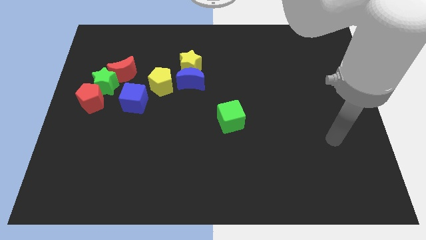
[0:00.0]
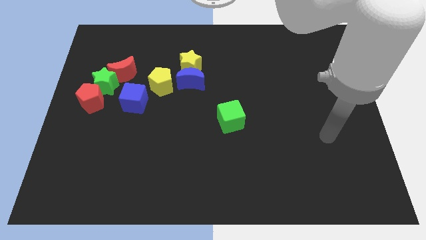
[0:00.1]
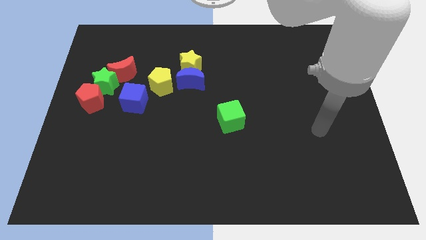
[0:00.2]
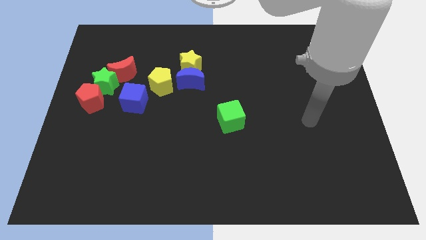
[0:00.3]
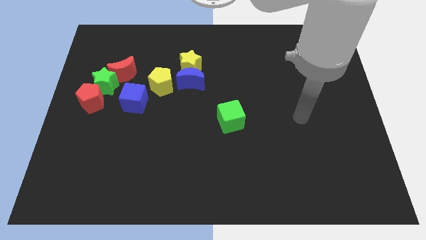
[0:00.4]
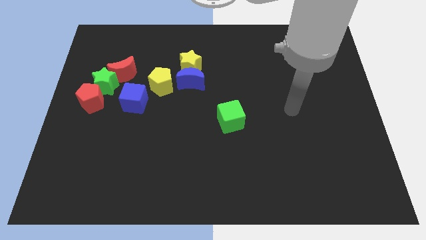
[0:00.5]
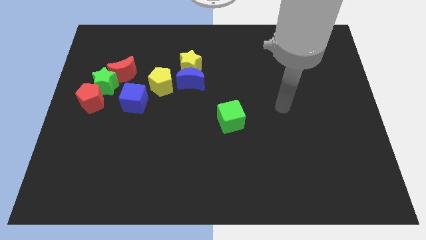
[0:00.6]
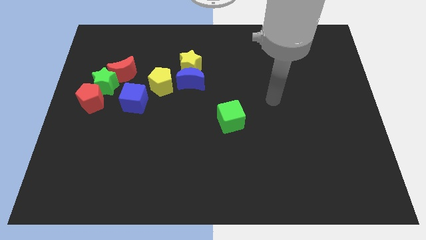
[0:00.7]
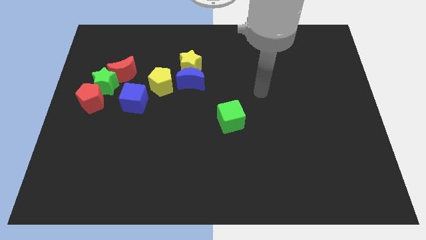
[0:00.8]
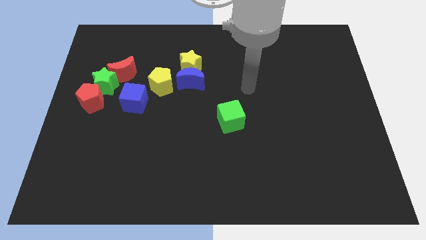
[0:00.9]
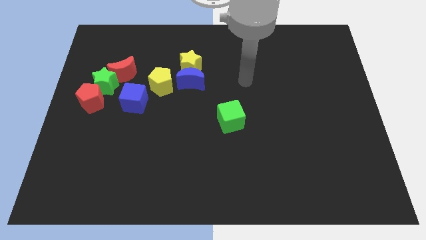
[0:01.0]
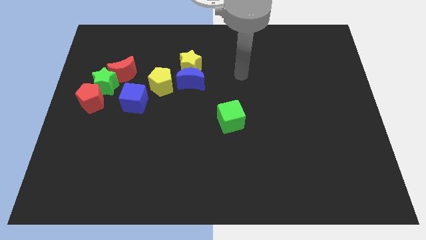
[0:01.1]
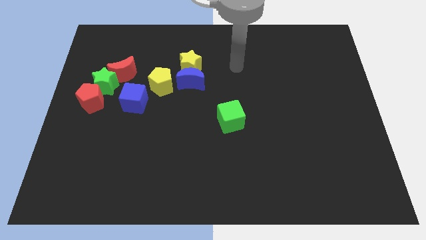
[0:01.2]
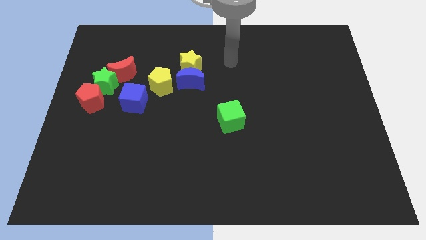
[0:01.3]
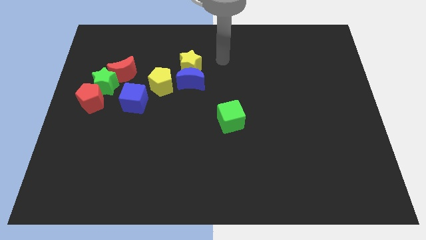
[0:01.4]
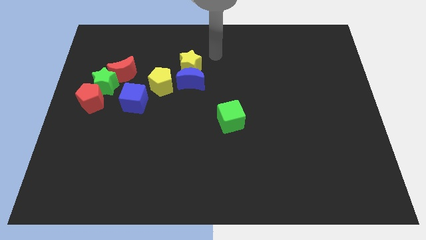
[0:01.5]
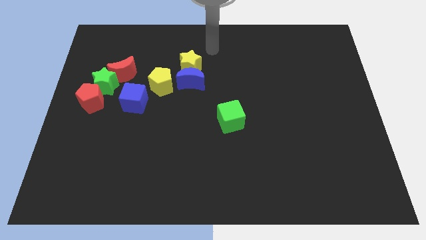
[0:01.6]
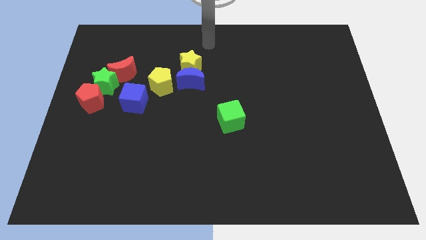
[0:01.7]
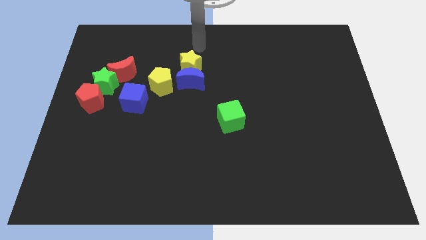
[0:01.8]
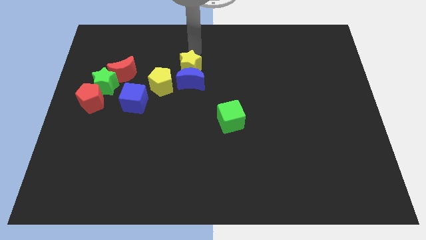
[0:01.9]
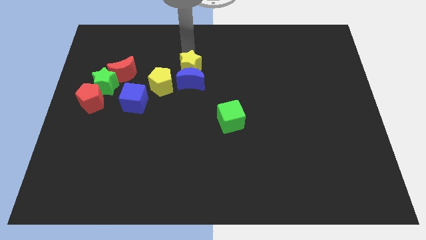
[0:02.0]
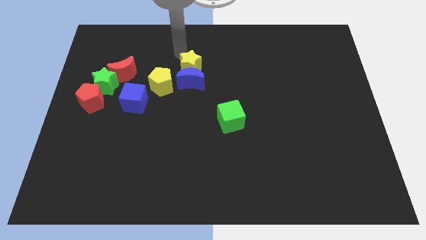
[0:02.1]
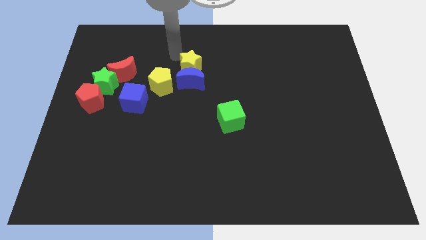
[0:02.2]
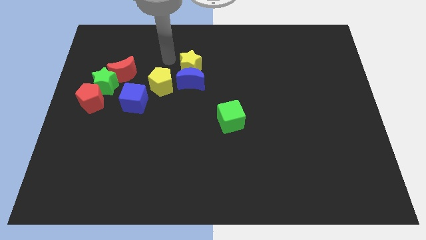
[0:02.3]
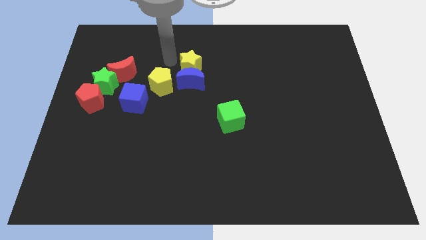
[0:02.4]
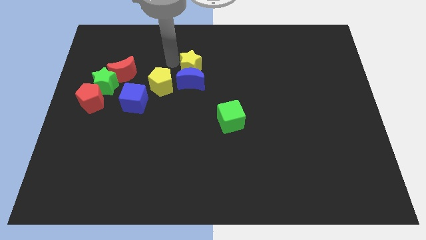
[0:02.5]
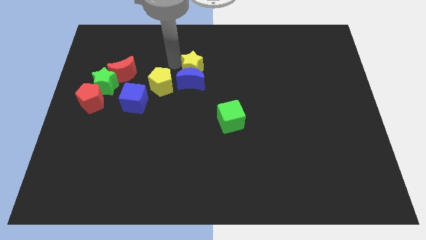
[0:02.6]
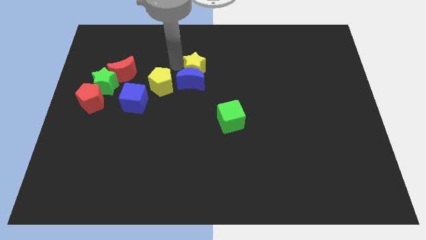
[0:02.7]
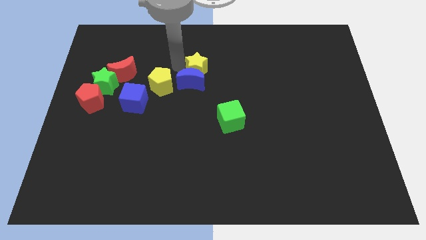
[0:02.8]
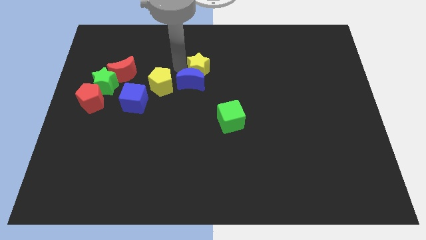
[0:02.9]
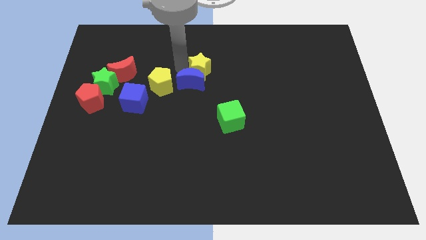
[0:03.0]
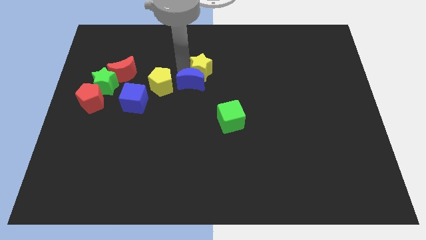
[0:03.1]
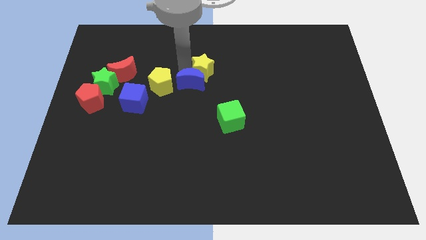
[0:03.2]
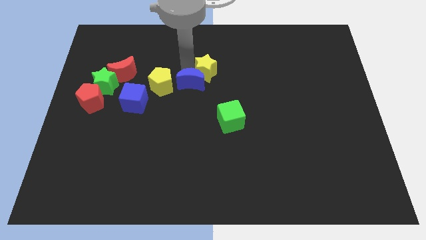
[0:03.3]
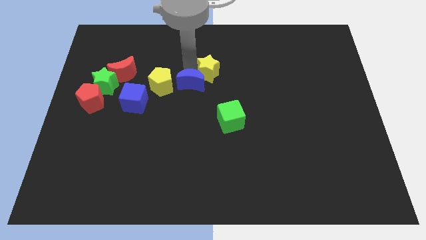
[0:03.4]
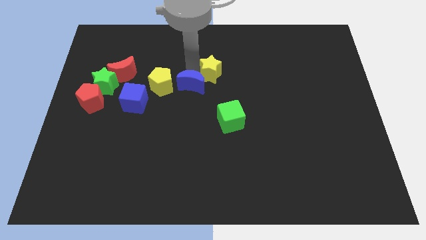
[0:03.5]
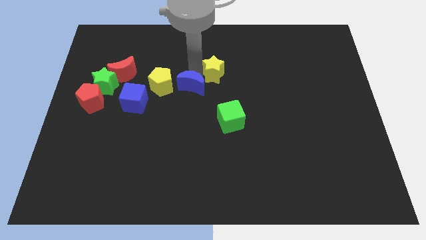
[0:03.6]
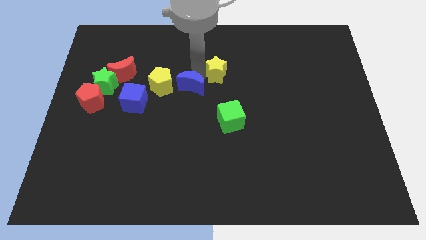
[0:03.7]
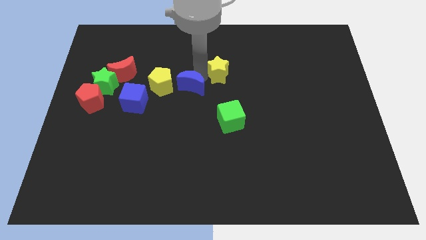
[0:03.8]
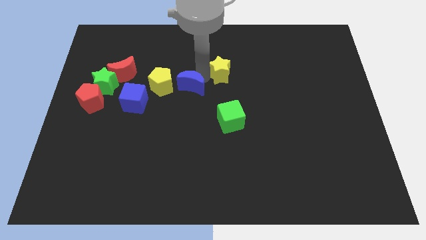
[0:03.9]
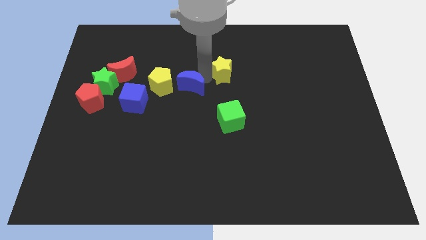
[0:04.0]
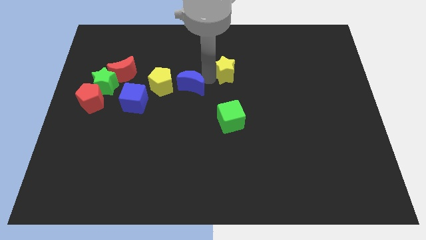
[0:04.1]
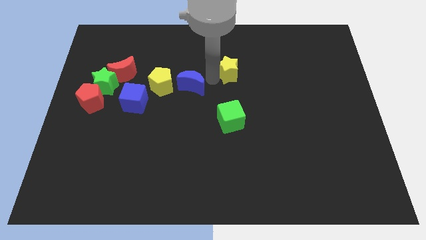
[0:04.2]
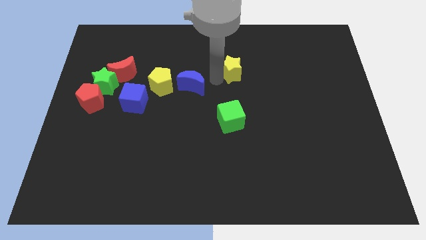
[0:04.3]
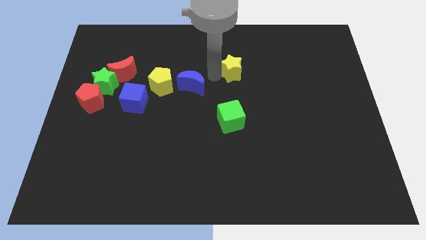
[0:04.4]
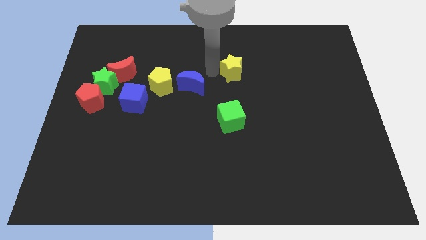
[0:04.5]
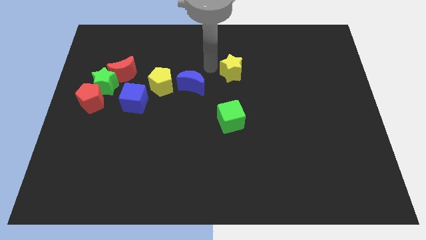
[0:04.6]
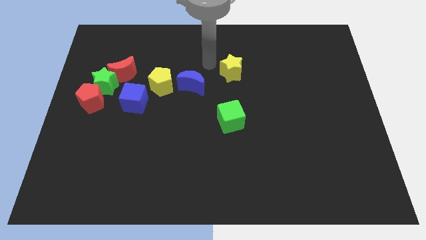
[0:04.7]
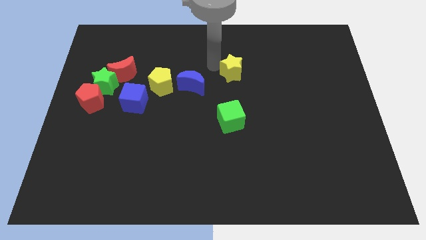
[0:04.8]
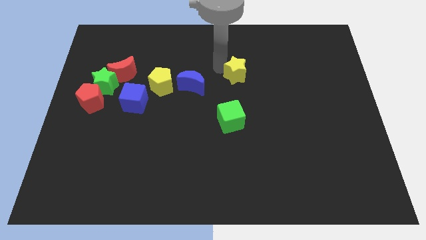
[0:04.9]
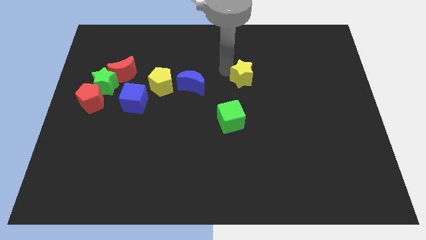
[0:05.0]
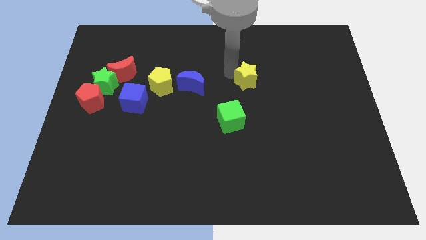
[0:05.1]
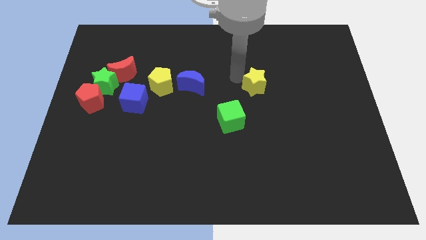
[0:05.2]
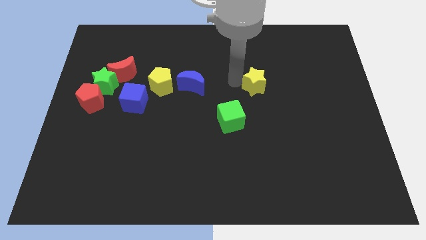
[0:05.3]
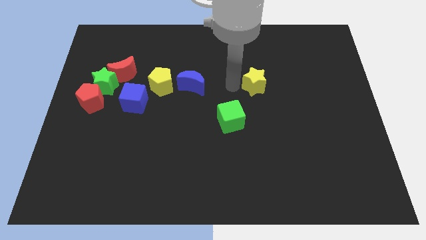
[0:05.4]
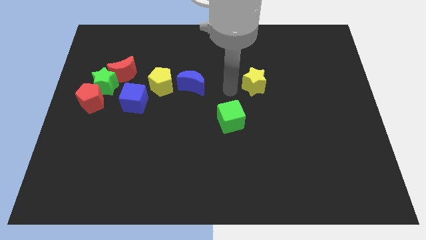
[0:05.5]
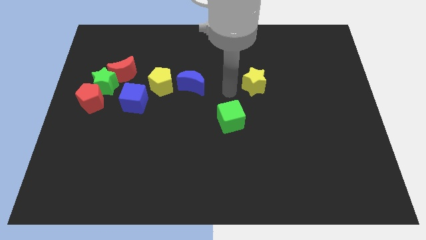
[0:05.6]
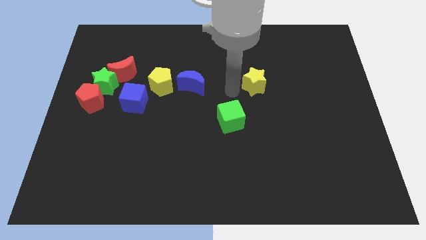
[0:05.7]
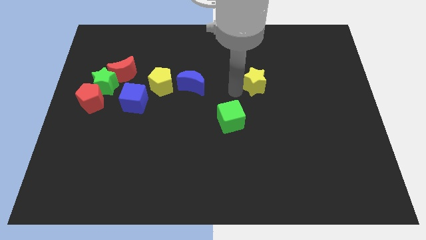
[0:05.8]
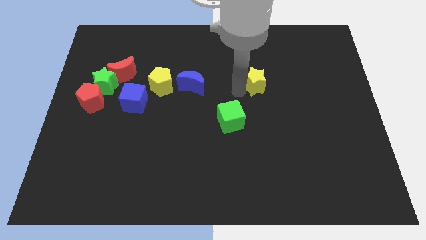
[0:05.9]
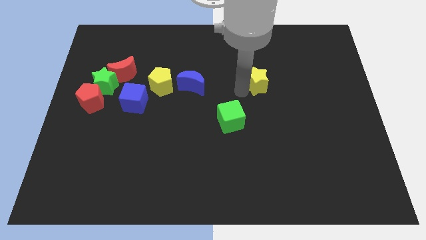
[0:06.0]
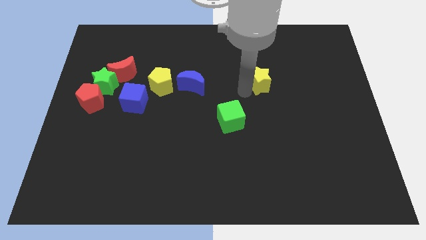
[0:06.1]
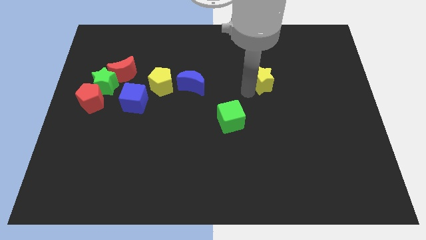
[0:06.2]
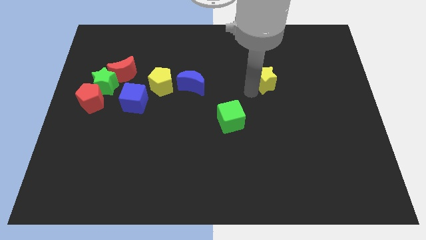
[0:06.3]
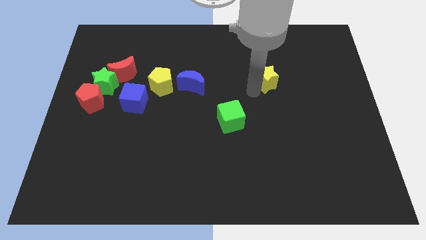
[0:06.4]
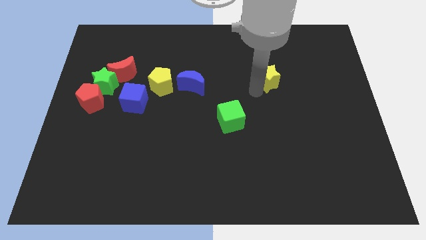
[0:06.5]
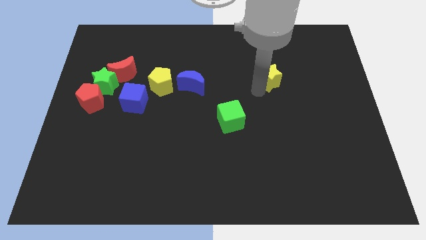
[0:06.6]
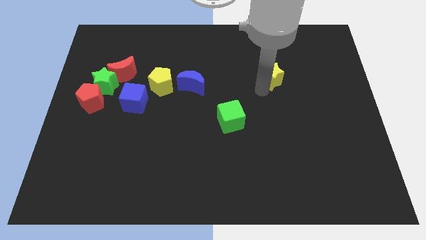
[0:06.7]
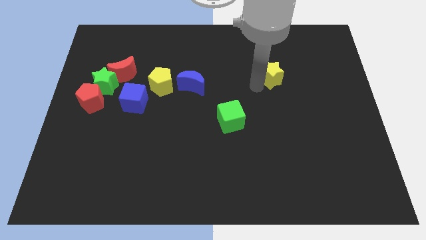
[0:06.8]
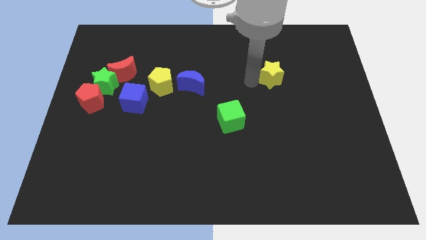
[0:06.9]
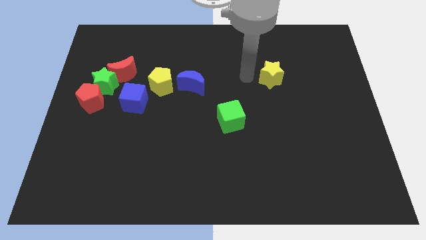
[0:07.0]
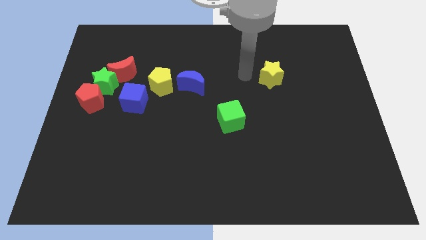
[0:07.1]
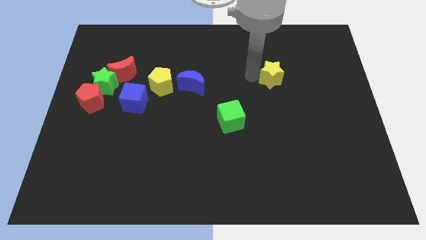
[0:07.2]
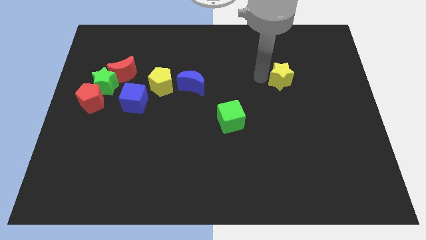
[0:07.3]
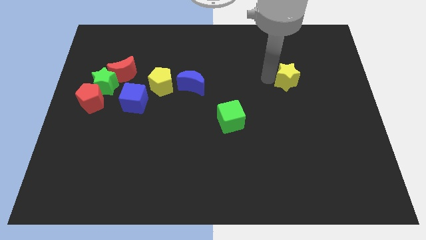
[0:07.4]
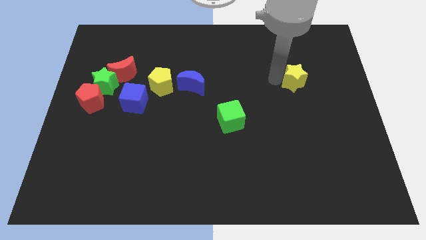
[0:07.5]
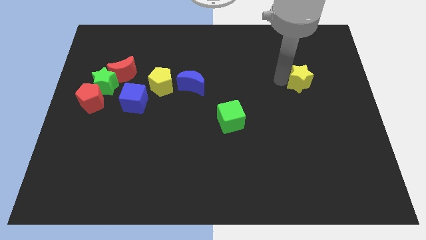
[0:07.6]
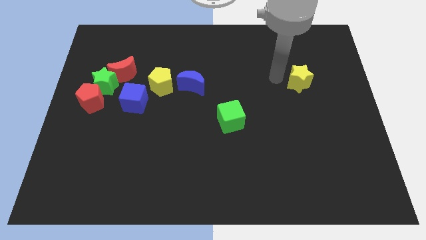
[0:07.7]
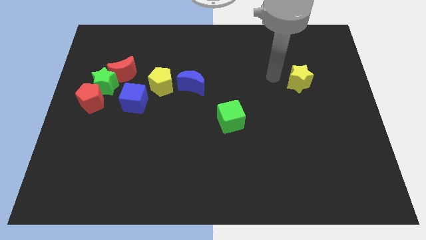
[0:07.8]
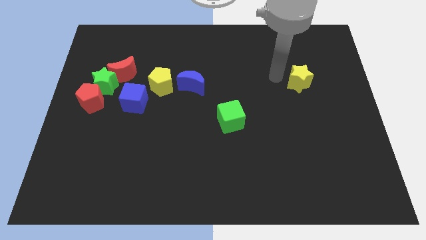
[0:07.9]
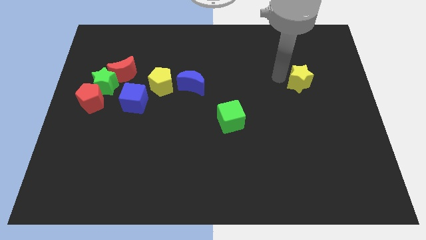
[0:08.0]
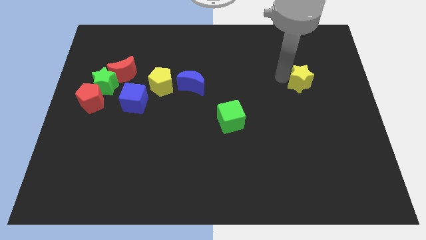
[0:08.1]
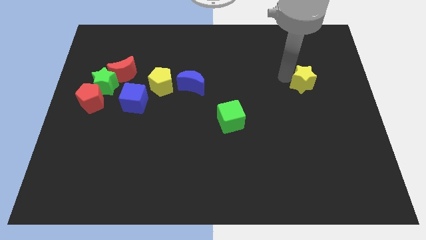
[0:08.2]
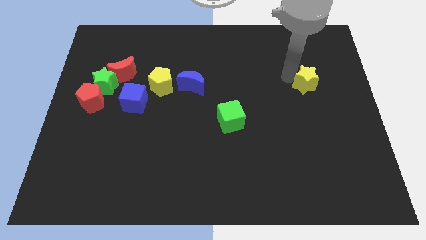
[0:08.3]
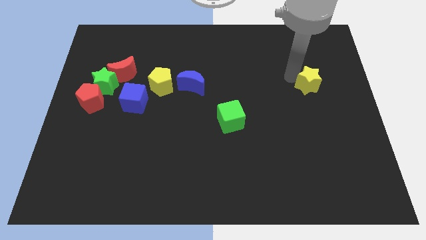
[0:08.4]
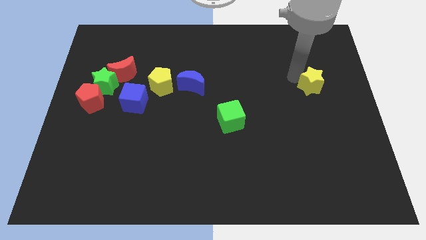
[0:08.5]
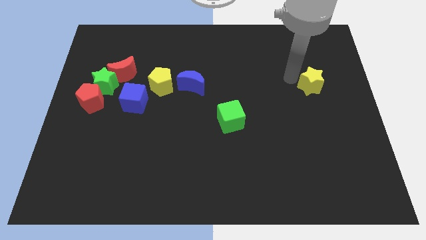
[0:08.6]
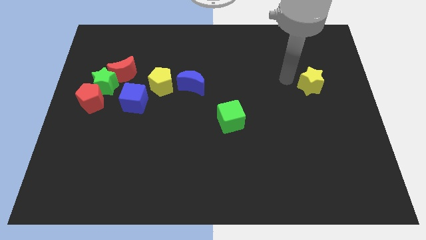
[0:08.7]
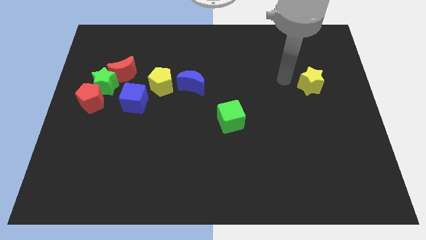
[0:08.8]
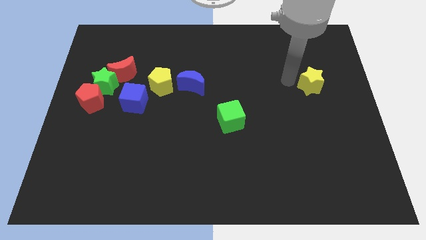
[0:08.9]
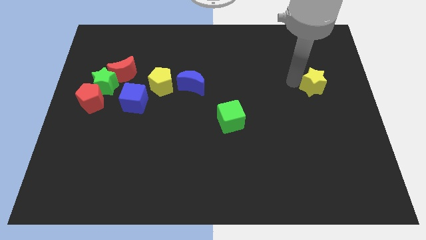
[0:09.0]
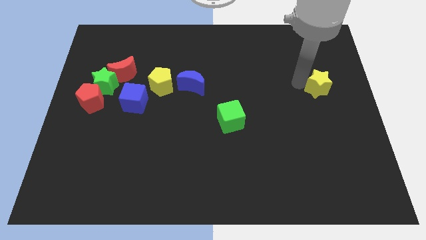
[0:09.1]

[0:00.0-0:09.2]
move the yellow star to the right side of the board
